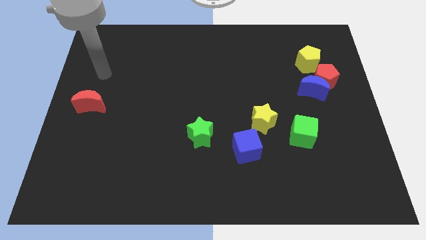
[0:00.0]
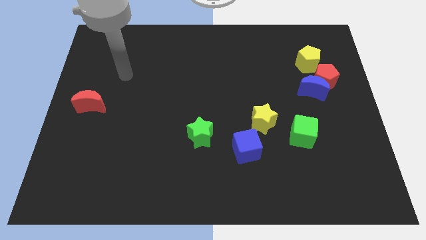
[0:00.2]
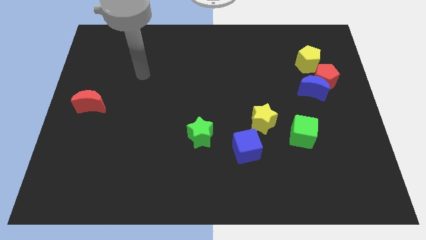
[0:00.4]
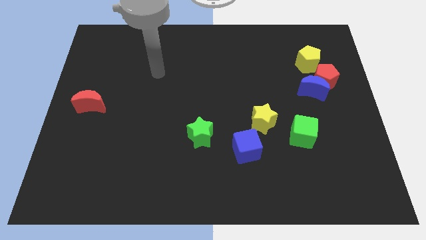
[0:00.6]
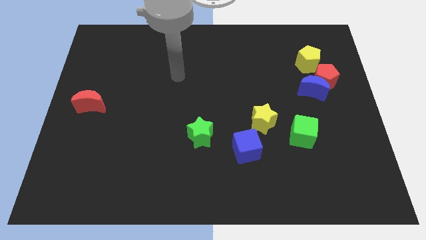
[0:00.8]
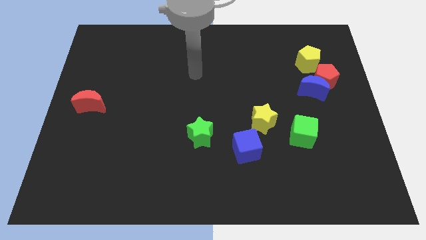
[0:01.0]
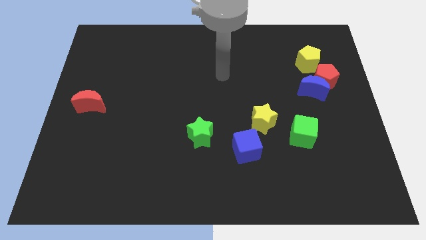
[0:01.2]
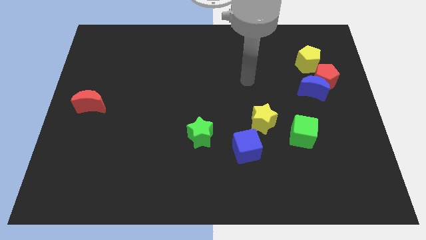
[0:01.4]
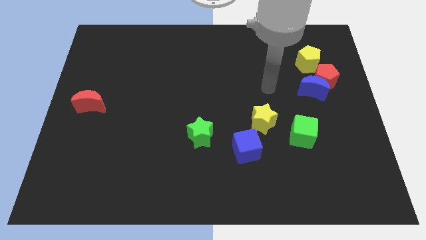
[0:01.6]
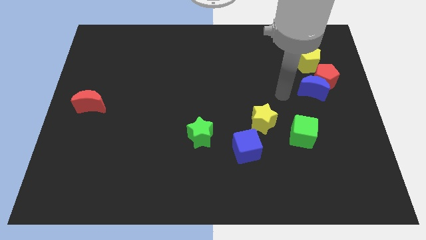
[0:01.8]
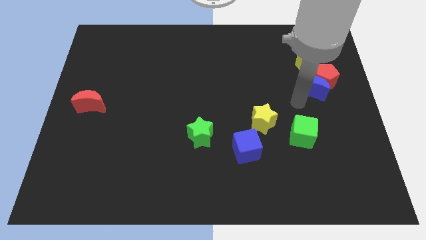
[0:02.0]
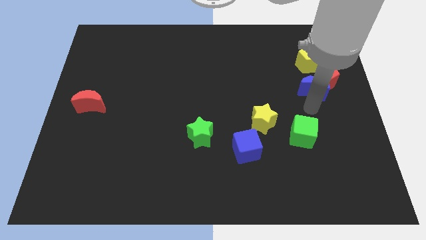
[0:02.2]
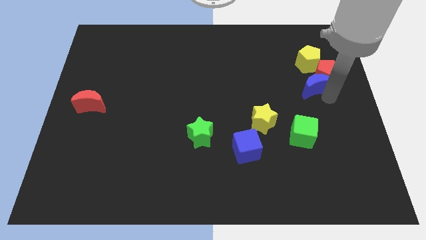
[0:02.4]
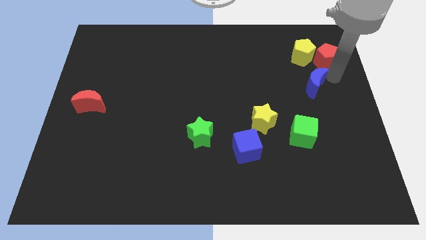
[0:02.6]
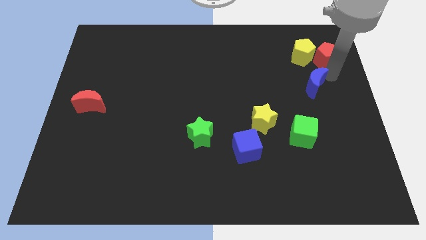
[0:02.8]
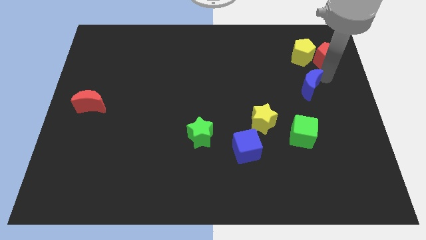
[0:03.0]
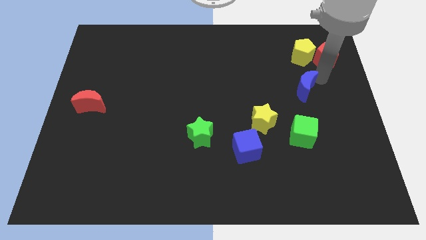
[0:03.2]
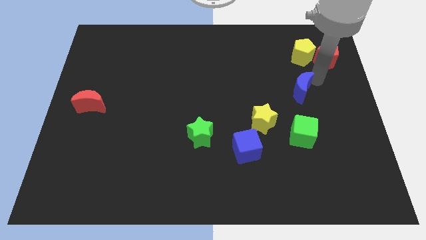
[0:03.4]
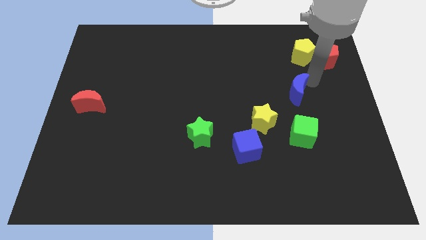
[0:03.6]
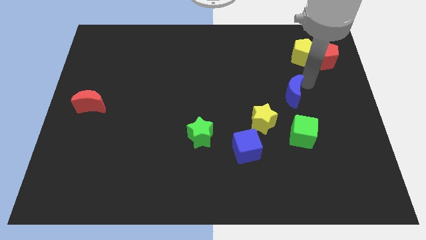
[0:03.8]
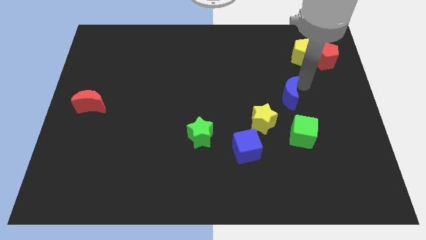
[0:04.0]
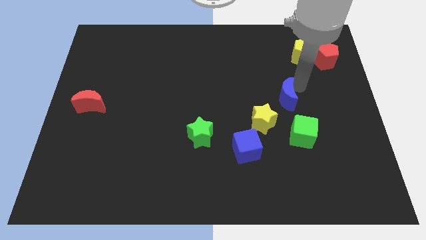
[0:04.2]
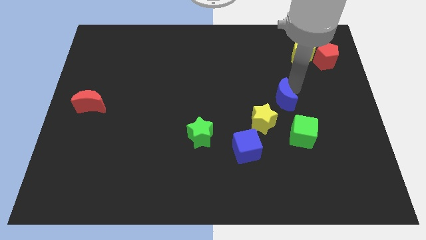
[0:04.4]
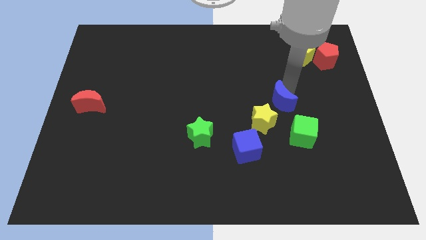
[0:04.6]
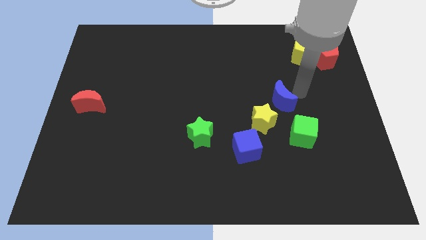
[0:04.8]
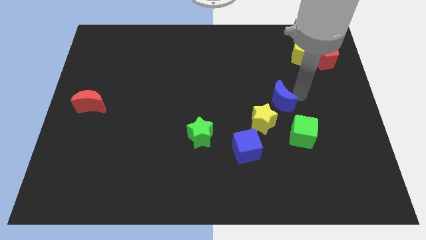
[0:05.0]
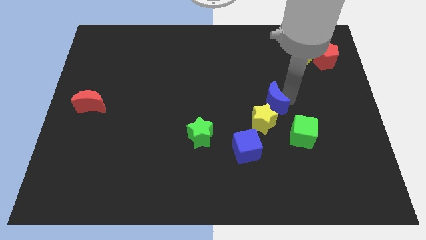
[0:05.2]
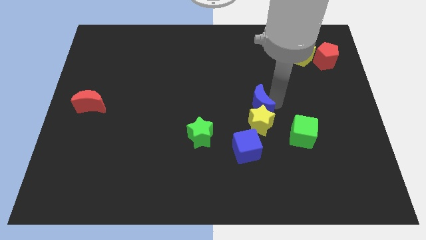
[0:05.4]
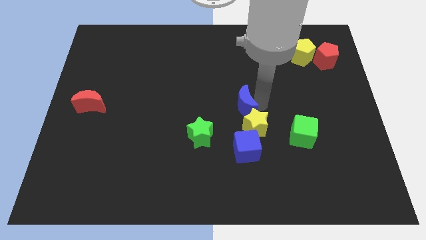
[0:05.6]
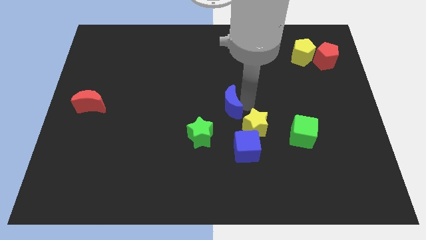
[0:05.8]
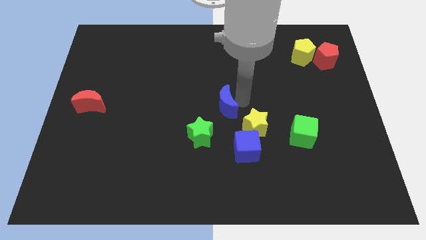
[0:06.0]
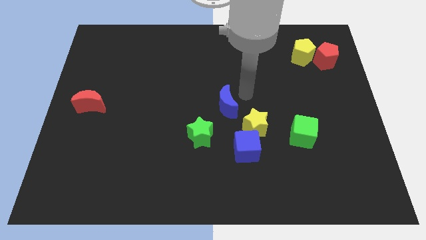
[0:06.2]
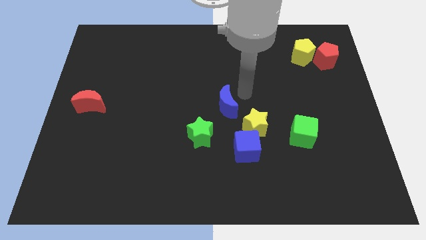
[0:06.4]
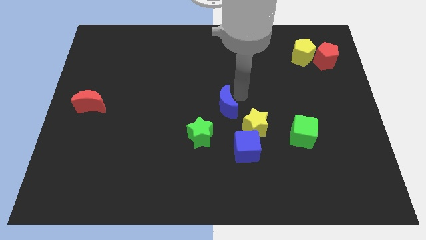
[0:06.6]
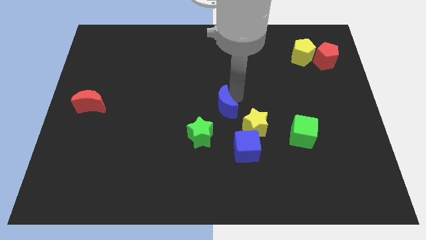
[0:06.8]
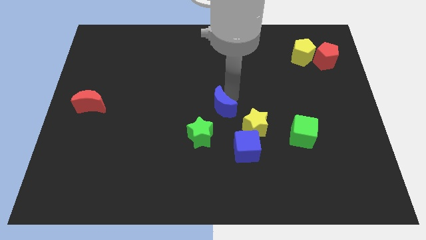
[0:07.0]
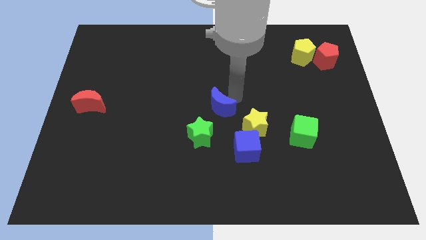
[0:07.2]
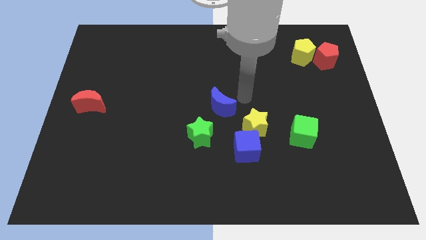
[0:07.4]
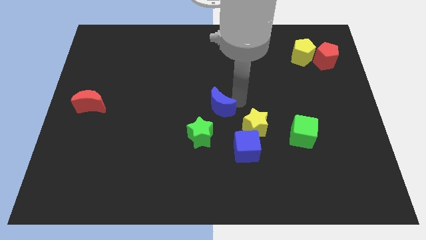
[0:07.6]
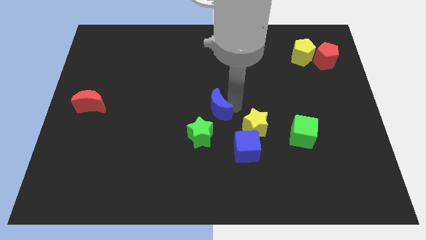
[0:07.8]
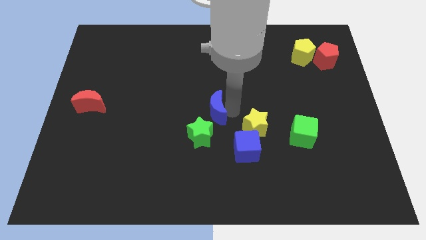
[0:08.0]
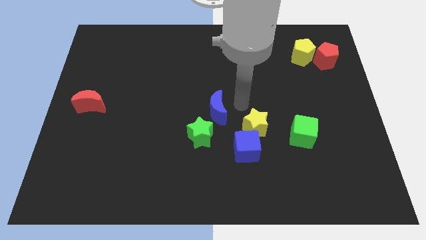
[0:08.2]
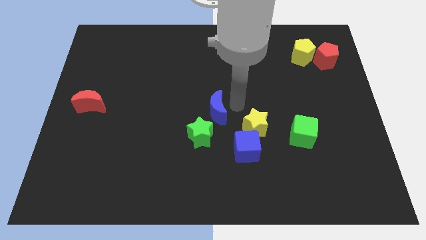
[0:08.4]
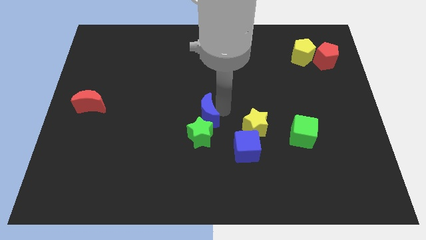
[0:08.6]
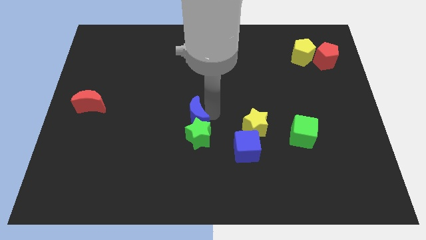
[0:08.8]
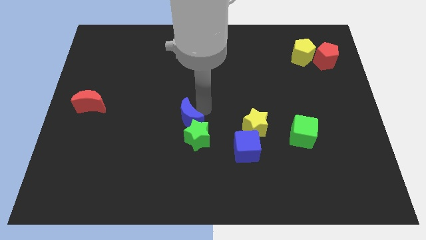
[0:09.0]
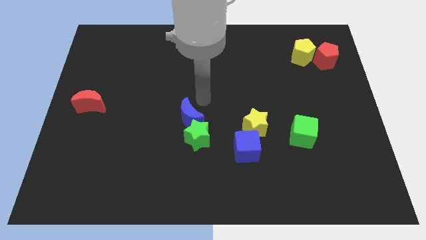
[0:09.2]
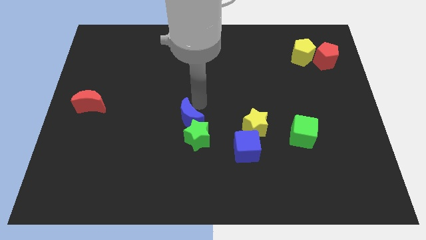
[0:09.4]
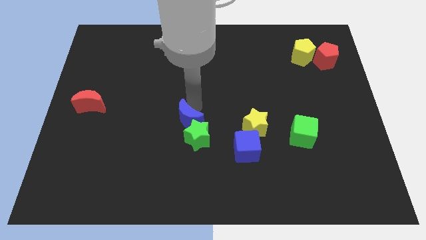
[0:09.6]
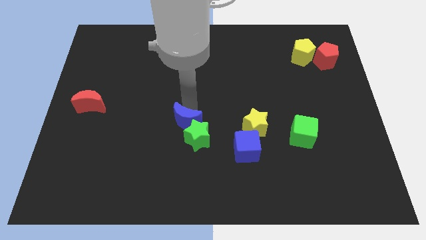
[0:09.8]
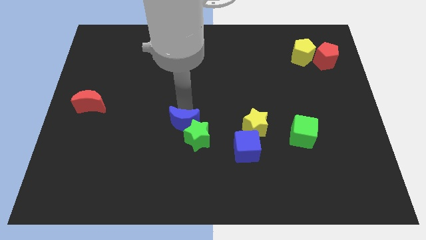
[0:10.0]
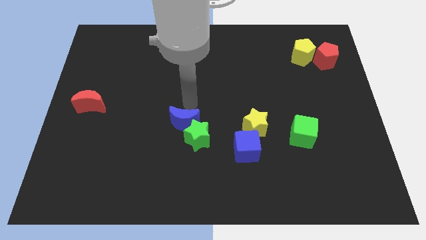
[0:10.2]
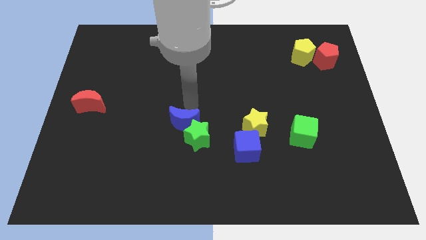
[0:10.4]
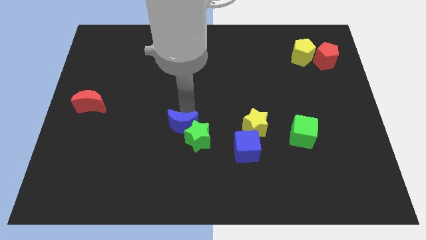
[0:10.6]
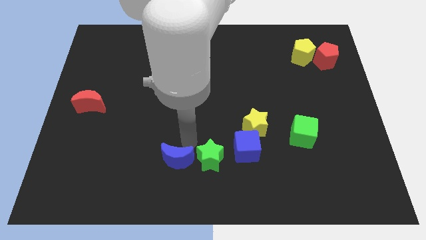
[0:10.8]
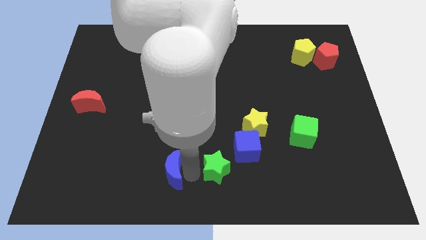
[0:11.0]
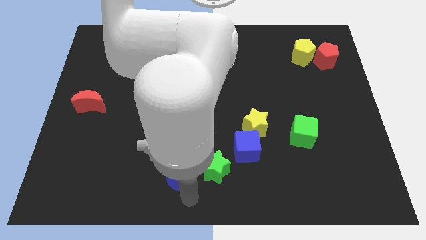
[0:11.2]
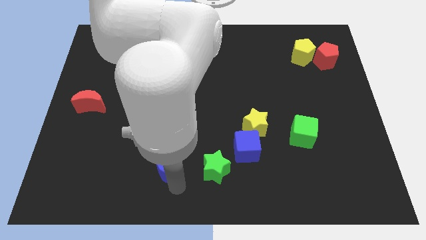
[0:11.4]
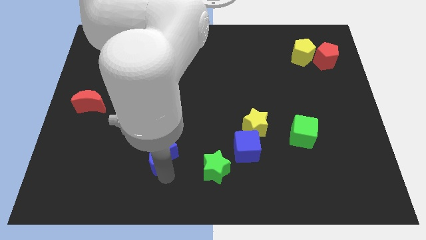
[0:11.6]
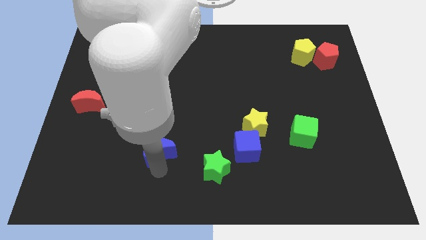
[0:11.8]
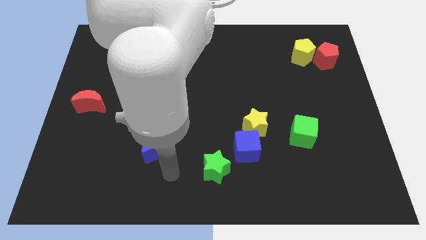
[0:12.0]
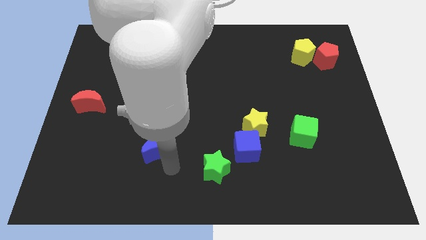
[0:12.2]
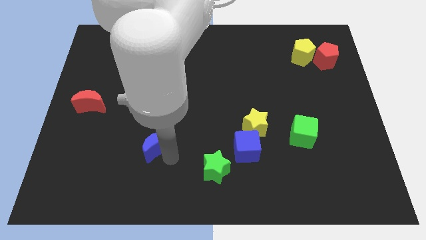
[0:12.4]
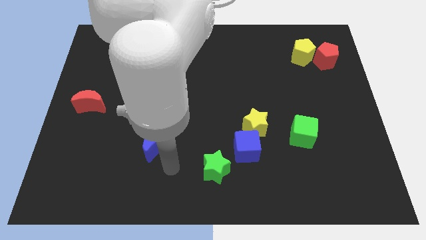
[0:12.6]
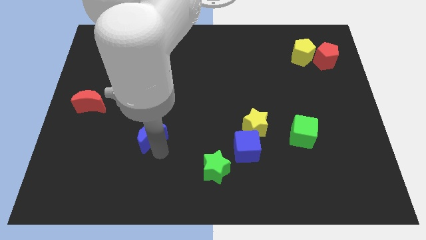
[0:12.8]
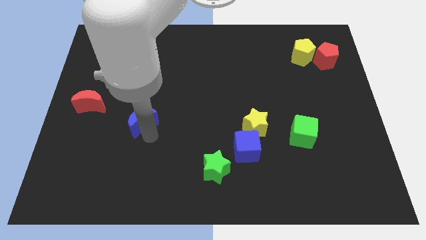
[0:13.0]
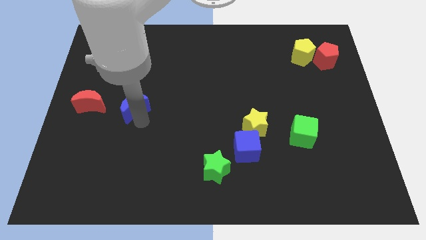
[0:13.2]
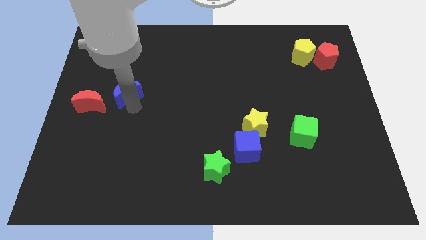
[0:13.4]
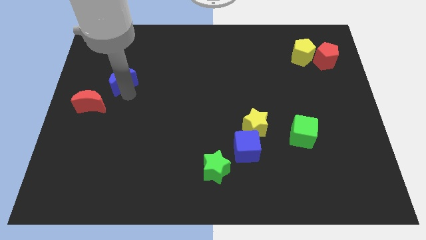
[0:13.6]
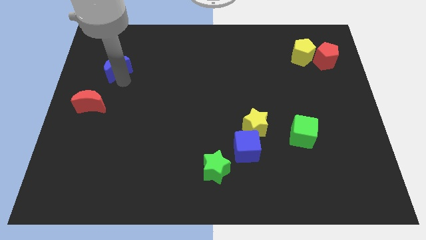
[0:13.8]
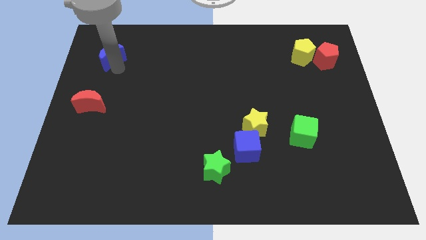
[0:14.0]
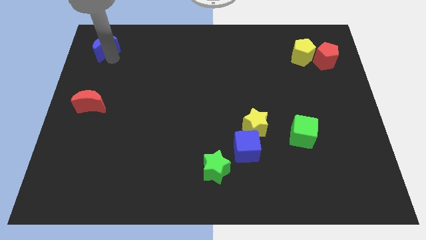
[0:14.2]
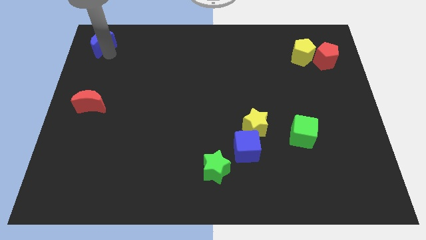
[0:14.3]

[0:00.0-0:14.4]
put the blue moon to the top left of the board
